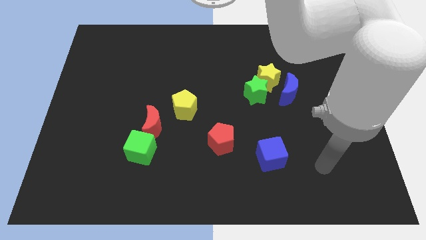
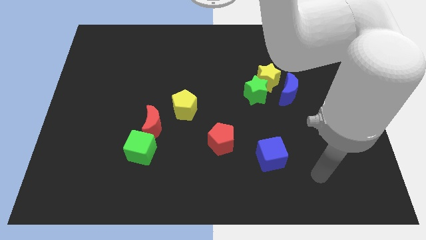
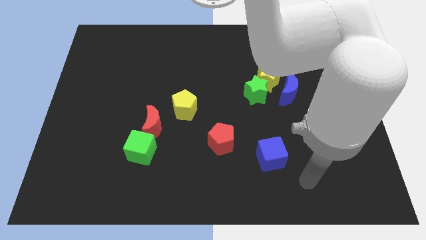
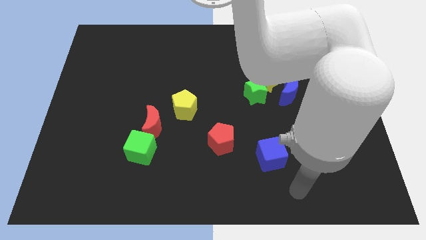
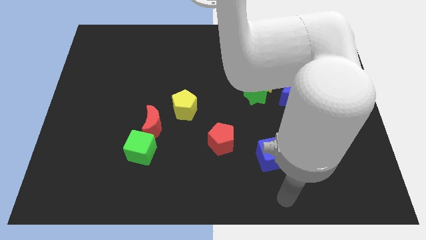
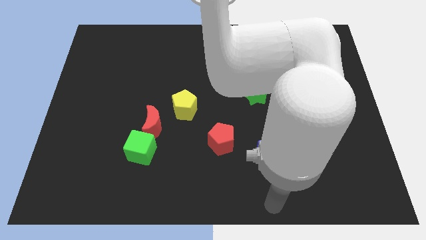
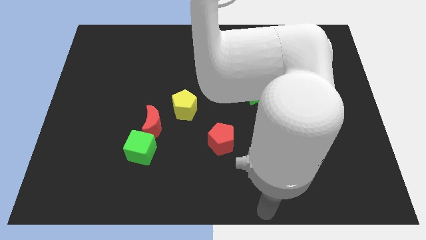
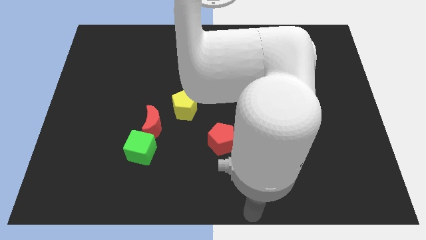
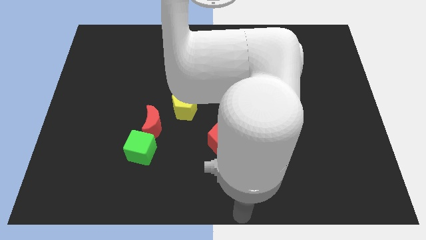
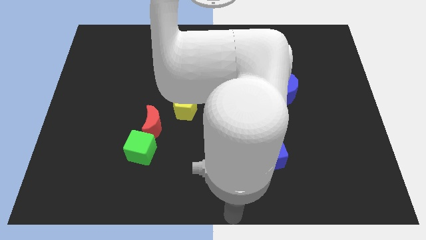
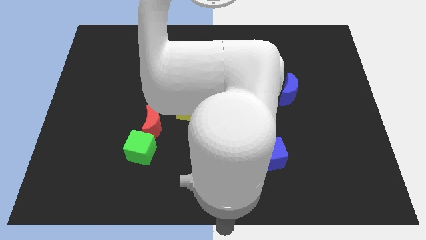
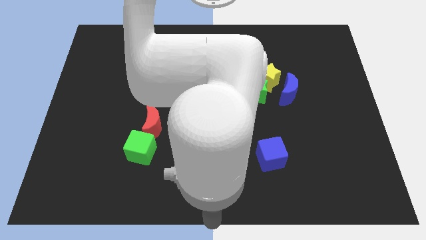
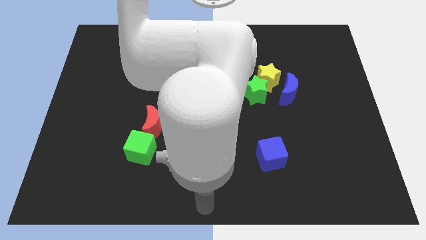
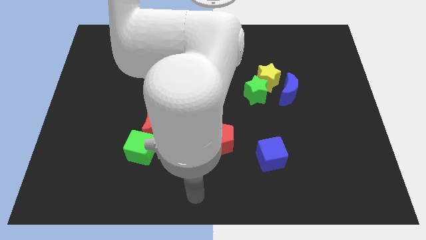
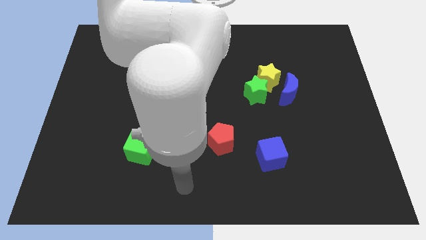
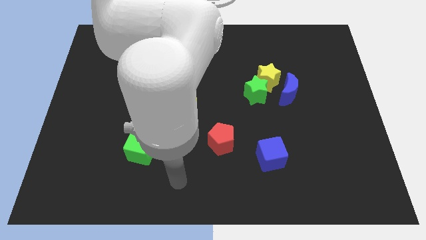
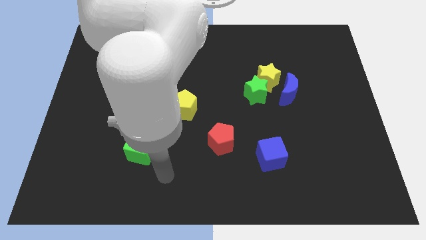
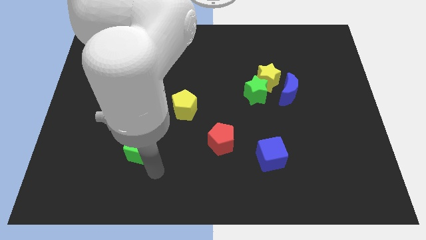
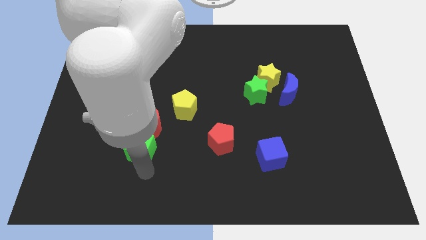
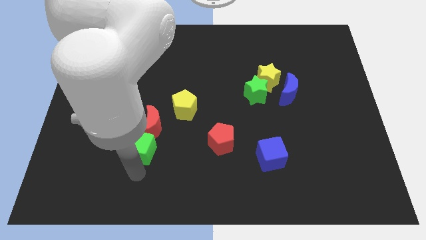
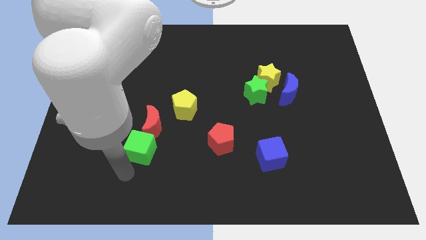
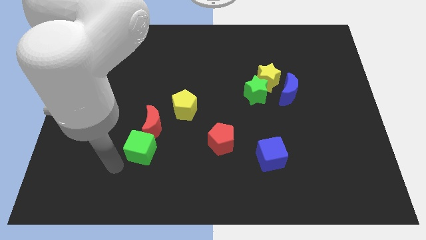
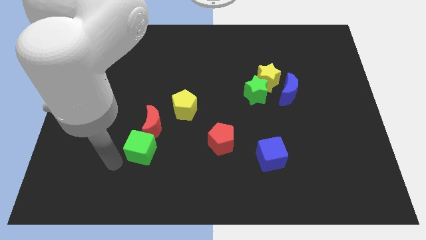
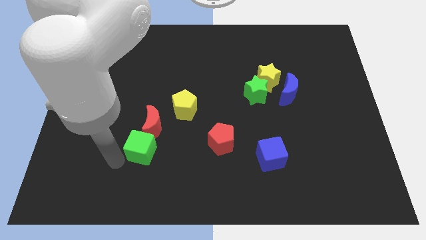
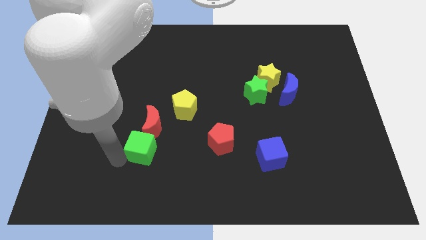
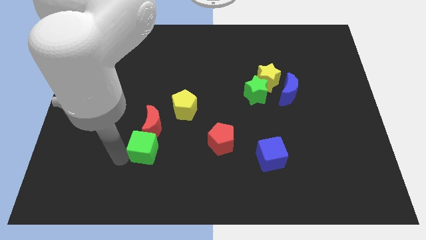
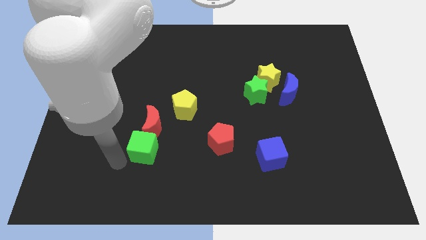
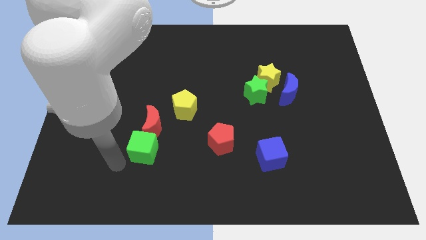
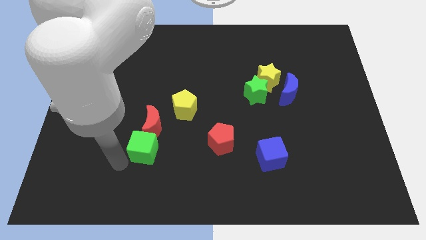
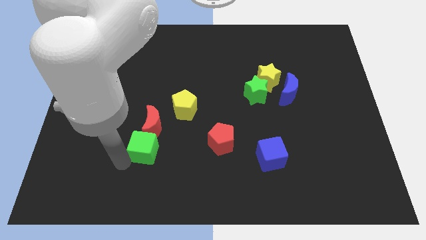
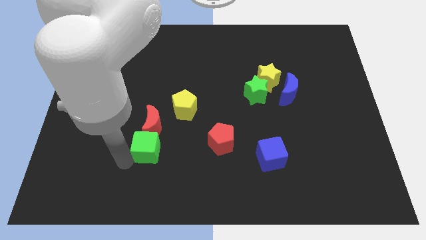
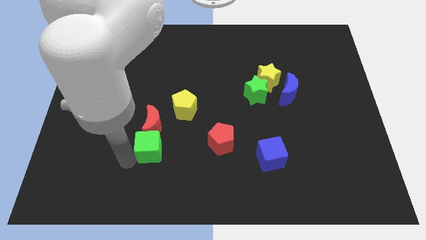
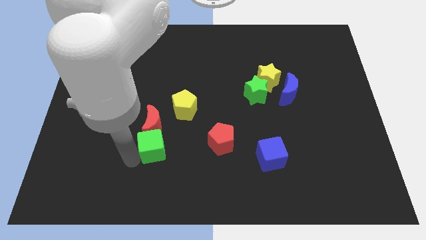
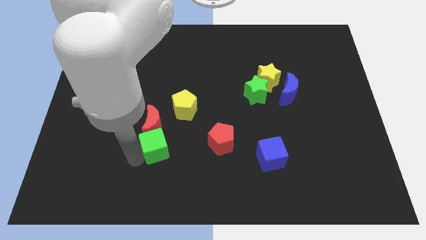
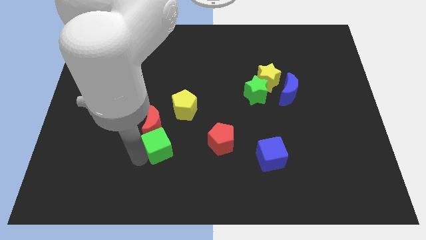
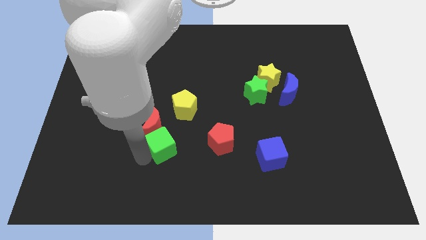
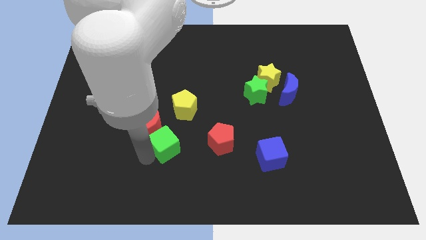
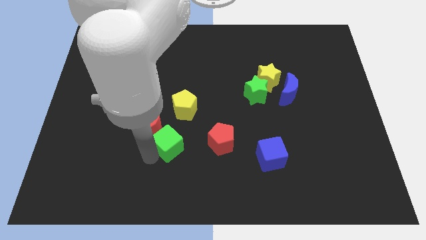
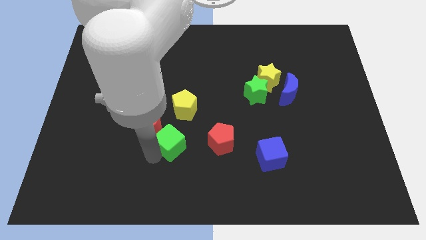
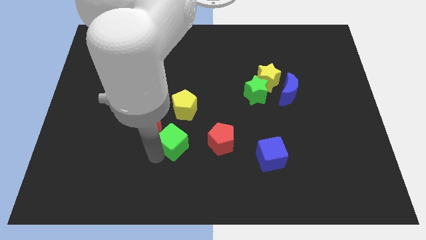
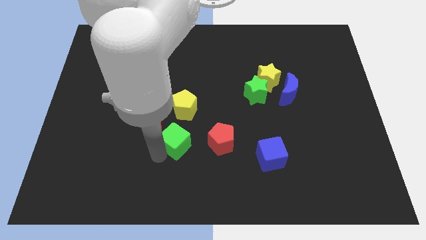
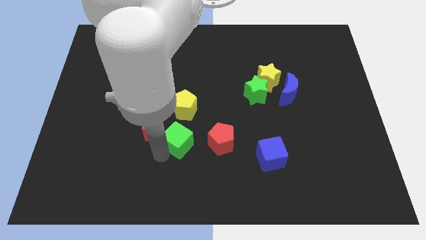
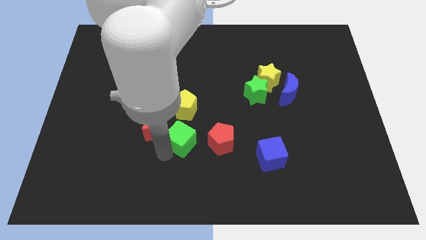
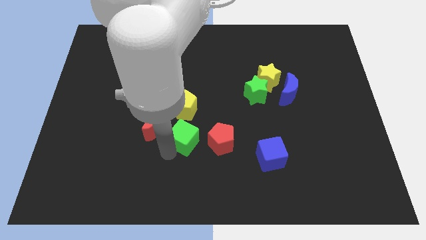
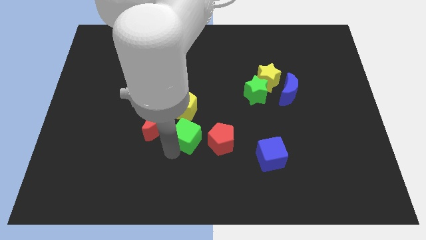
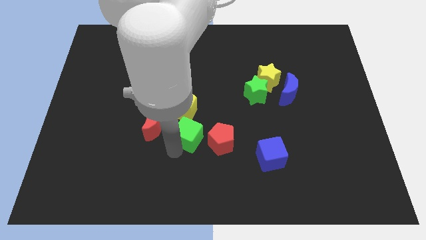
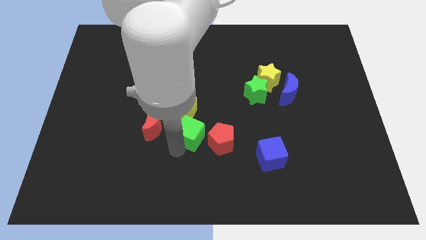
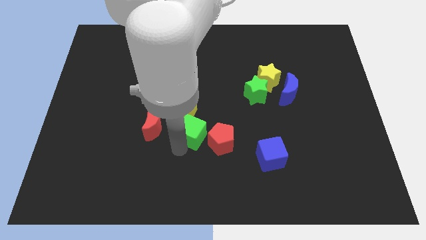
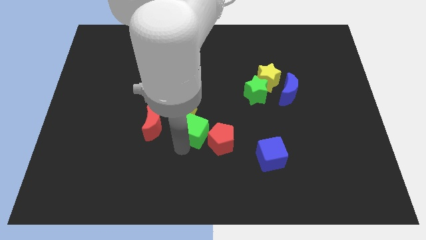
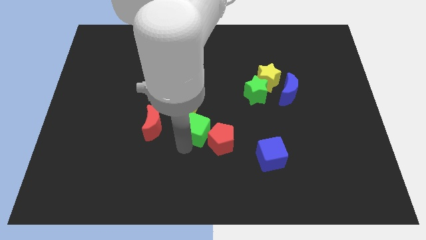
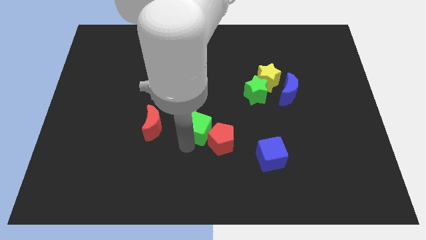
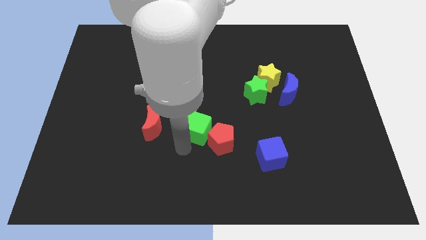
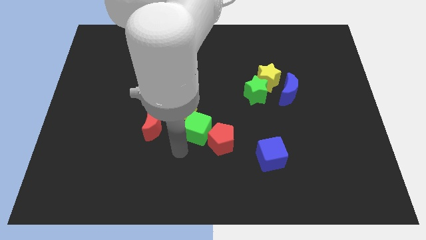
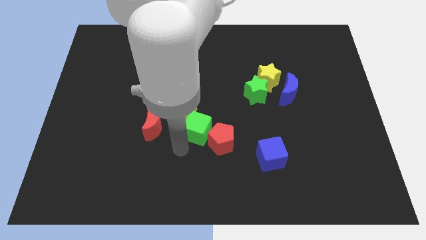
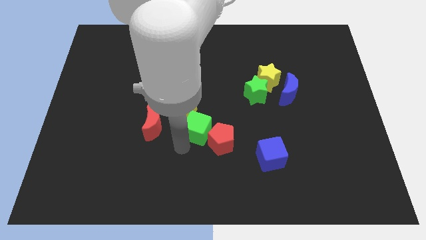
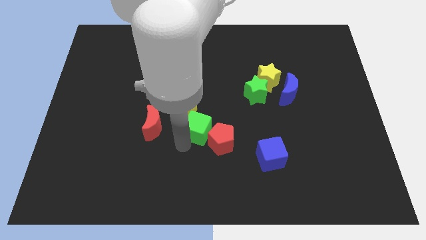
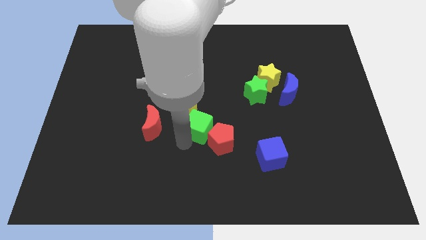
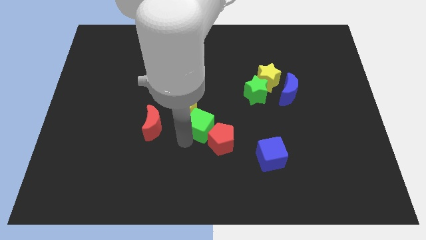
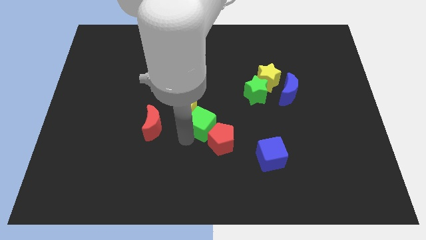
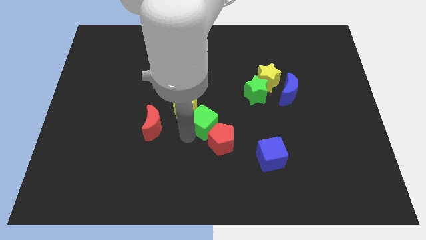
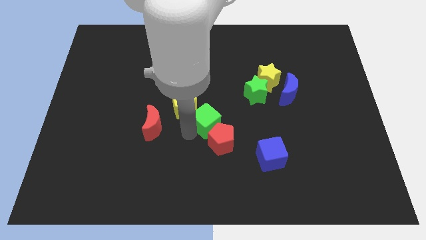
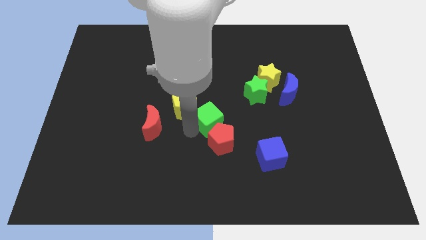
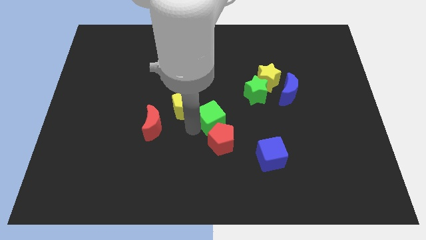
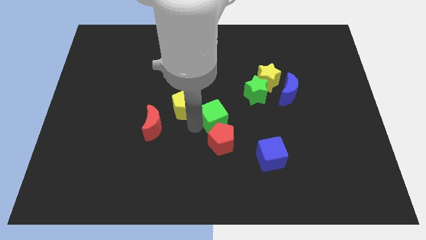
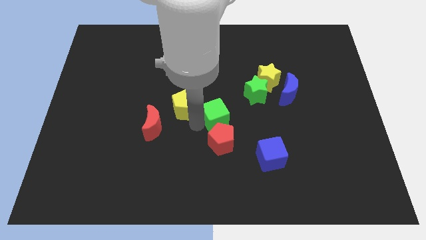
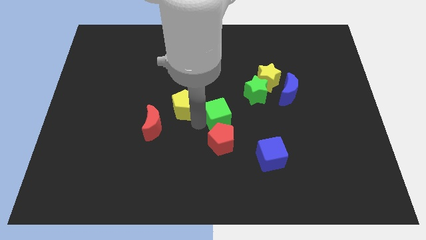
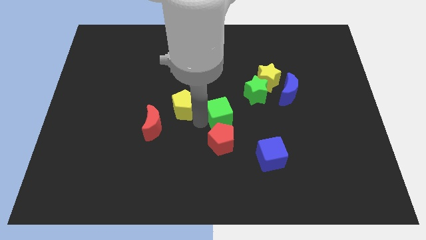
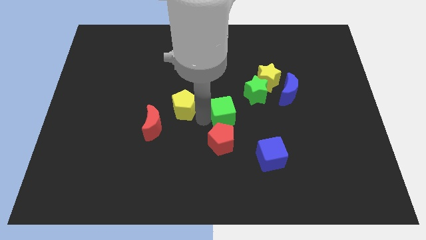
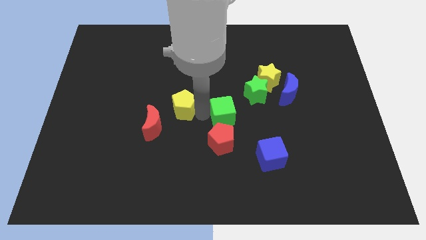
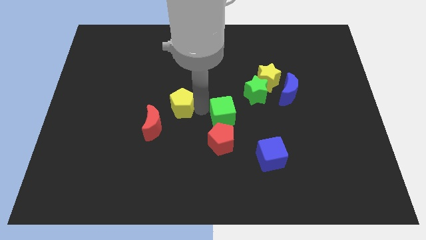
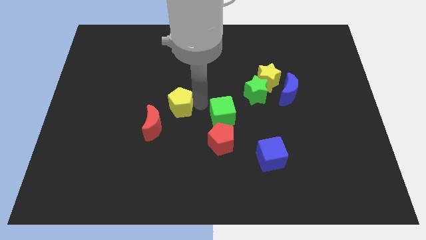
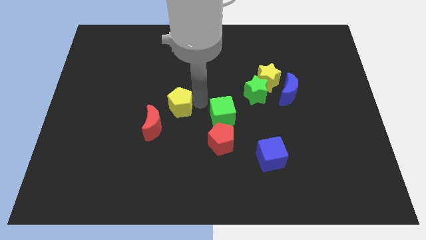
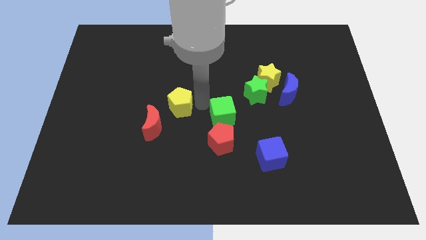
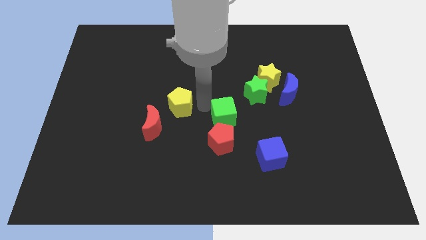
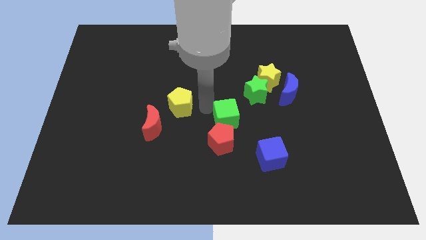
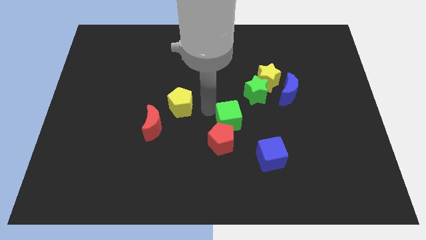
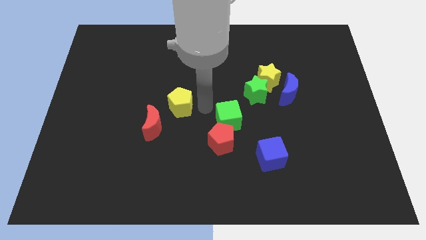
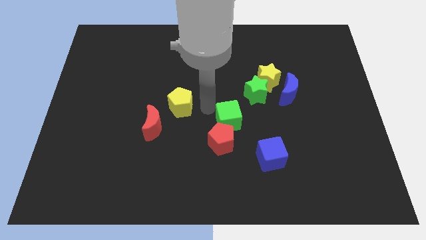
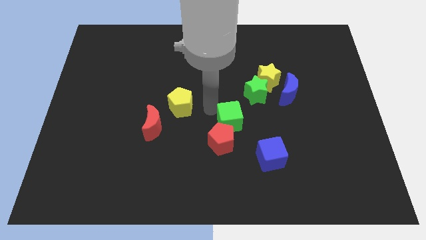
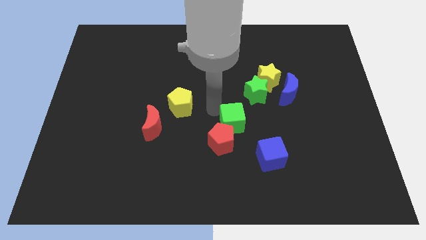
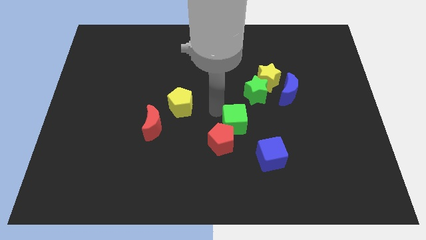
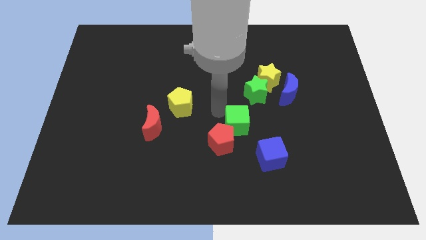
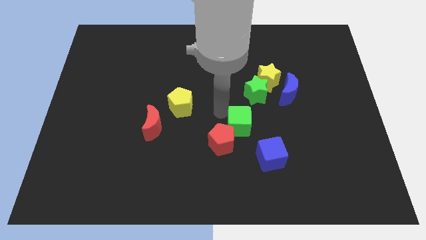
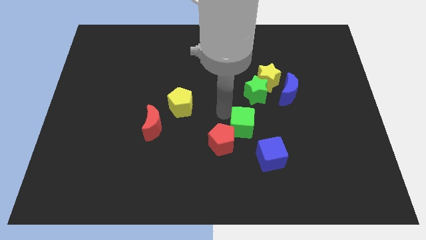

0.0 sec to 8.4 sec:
move the green cube to the right

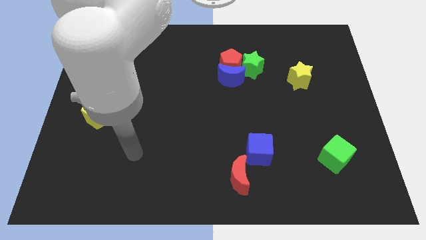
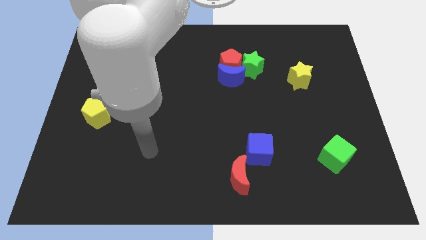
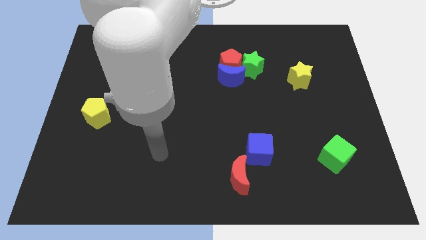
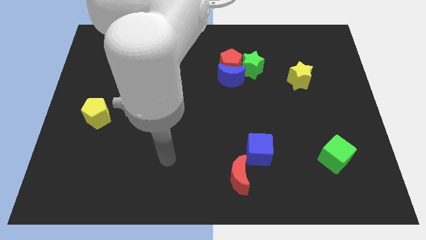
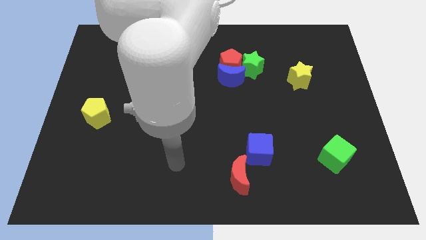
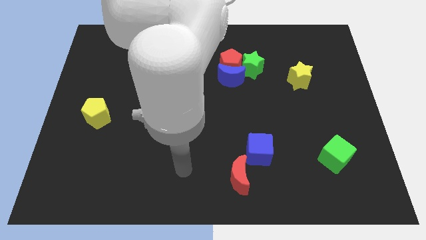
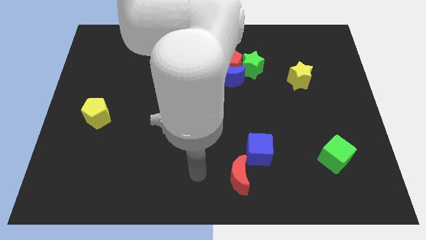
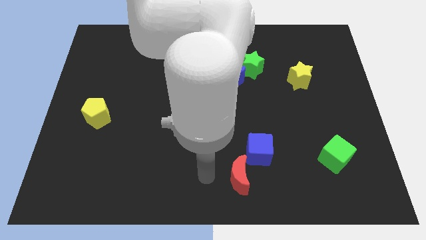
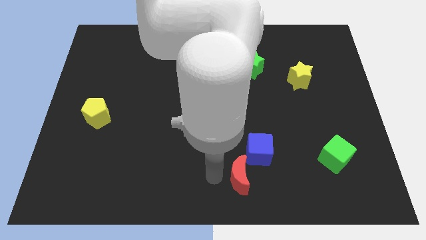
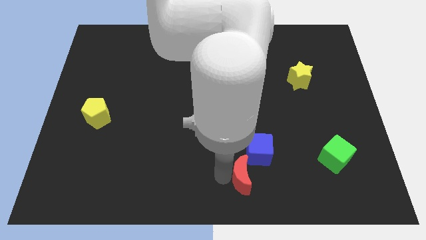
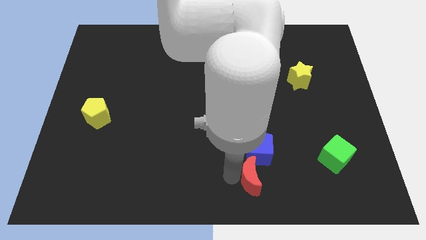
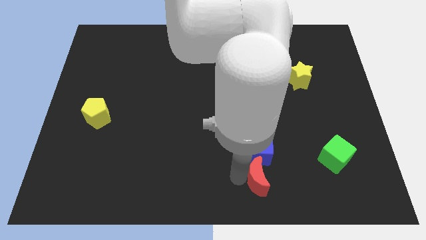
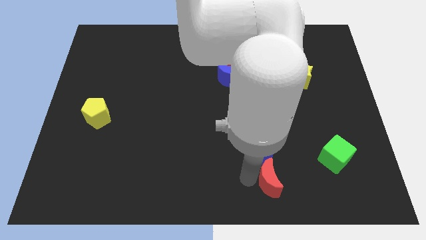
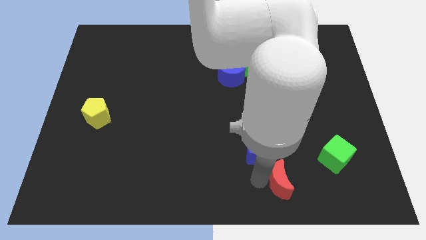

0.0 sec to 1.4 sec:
slightly slide the red moon to the right
